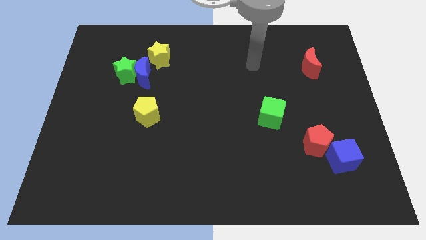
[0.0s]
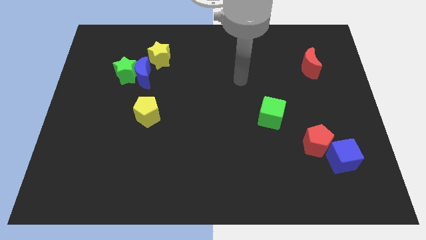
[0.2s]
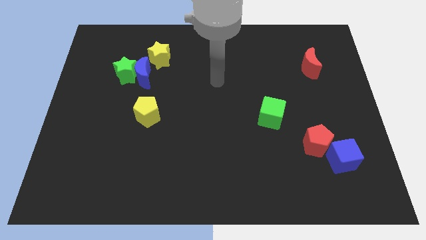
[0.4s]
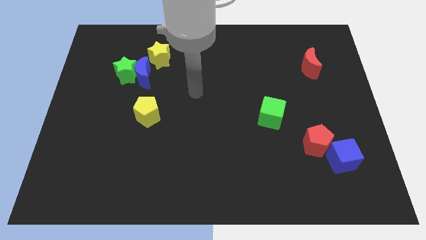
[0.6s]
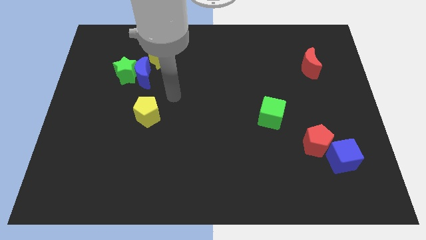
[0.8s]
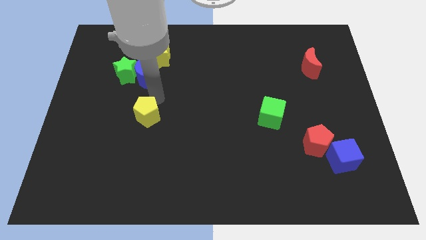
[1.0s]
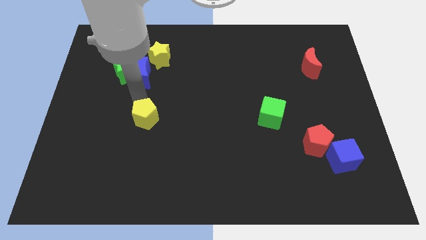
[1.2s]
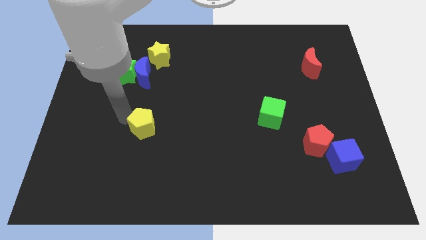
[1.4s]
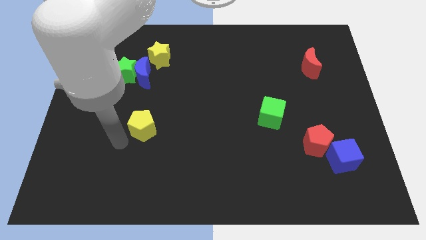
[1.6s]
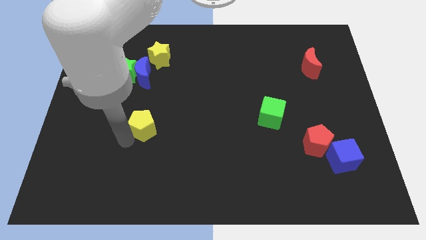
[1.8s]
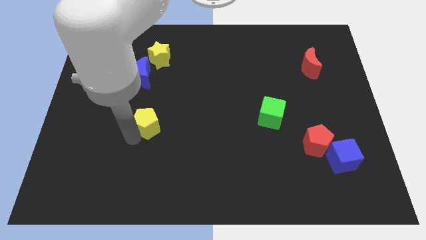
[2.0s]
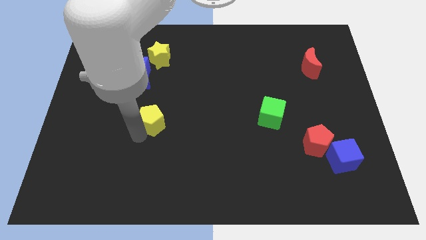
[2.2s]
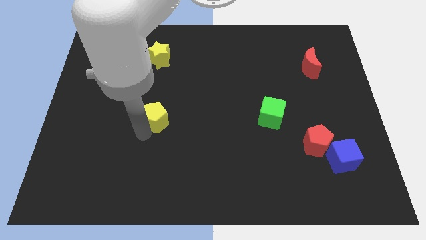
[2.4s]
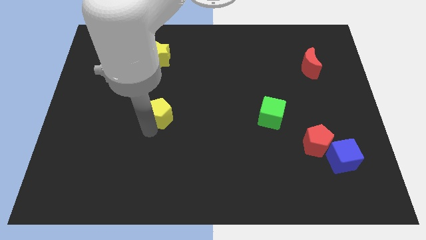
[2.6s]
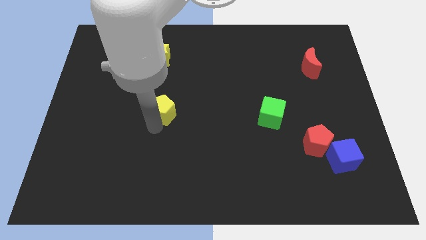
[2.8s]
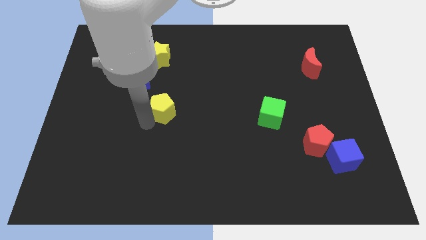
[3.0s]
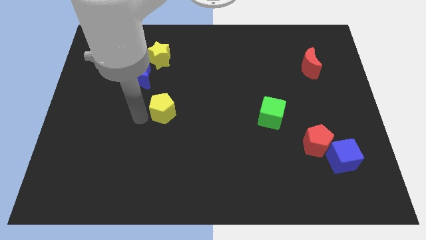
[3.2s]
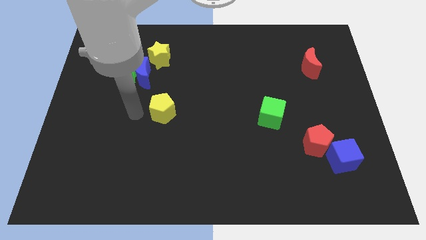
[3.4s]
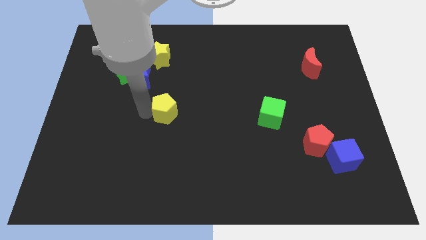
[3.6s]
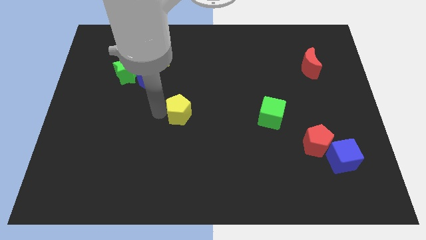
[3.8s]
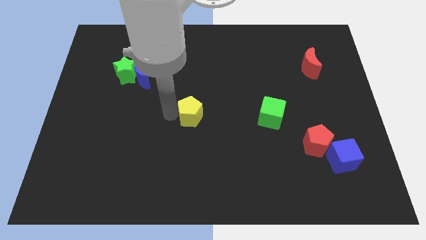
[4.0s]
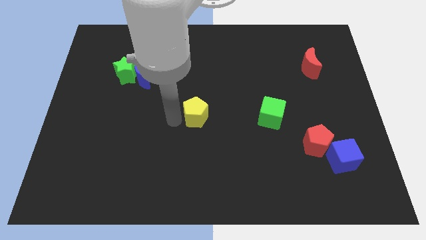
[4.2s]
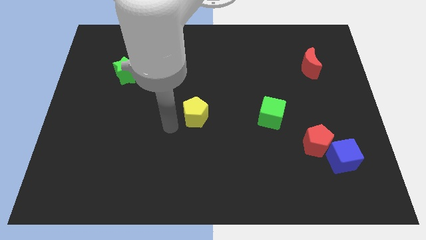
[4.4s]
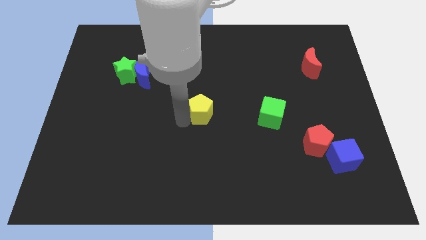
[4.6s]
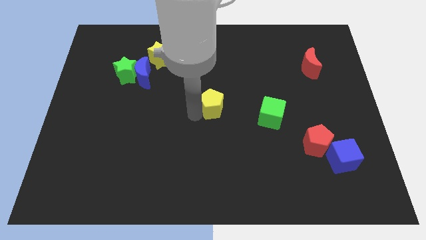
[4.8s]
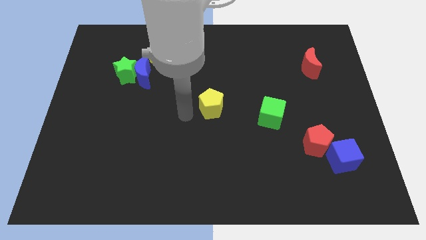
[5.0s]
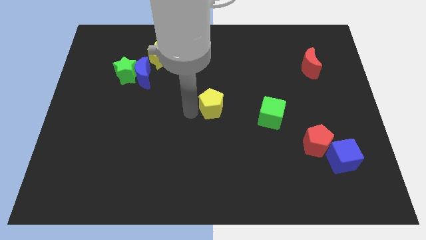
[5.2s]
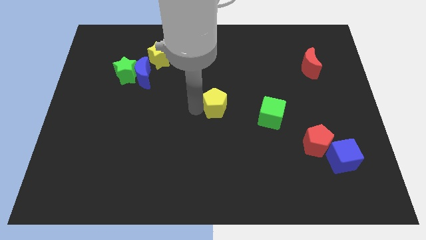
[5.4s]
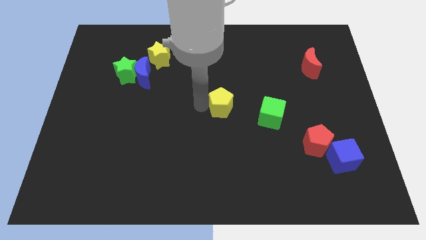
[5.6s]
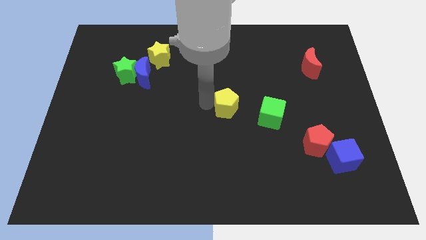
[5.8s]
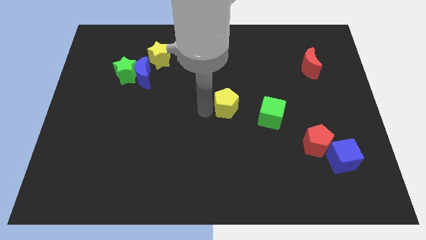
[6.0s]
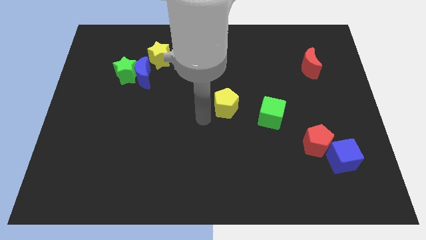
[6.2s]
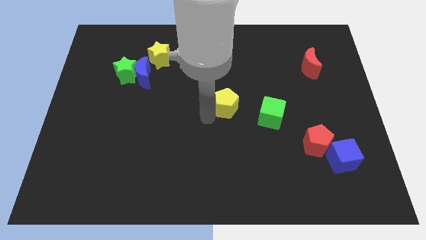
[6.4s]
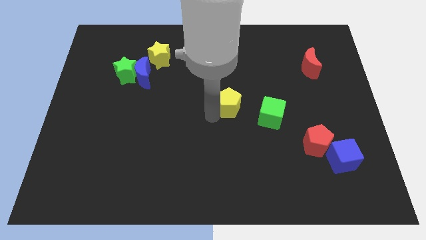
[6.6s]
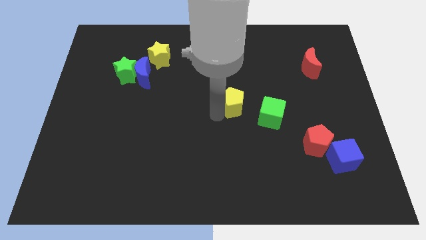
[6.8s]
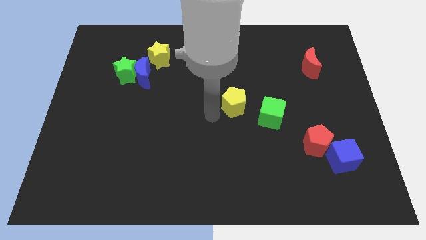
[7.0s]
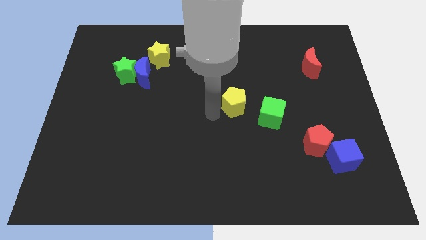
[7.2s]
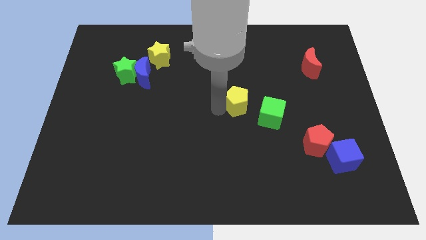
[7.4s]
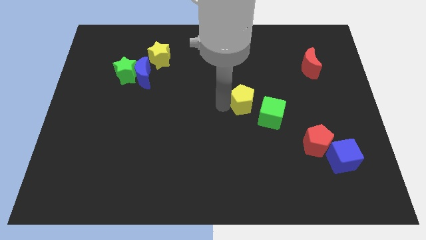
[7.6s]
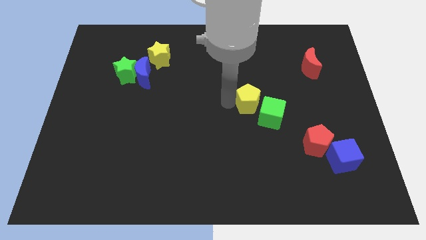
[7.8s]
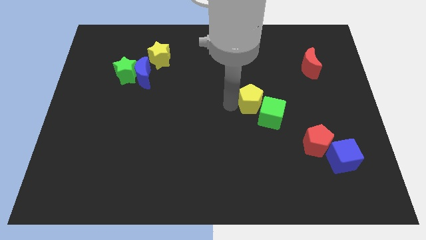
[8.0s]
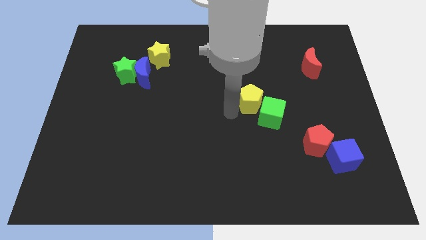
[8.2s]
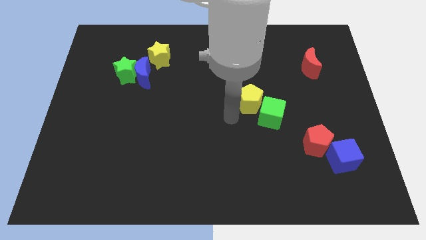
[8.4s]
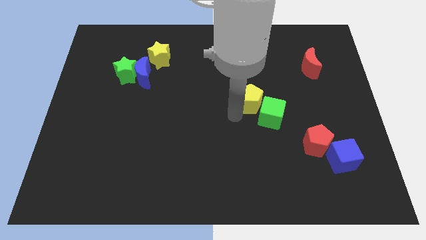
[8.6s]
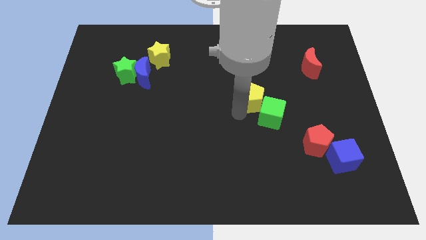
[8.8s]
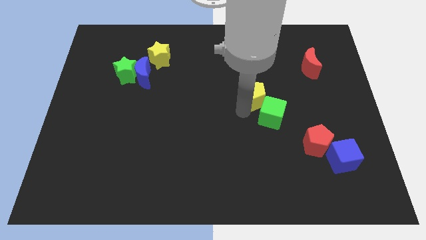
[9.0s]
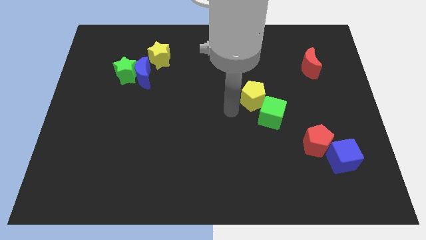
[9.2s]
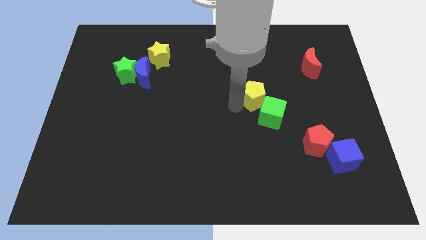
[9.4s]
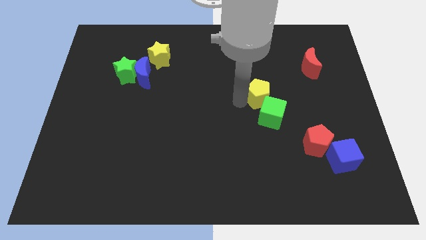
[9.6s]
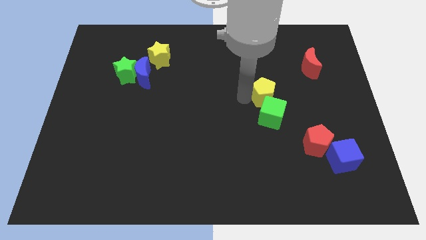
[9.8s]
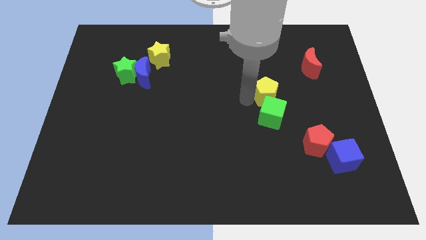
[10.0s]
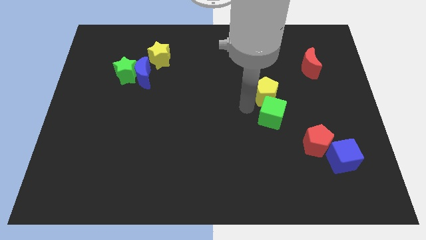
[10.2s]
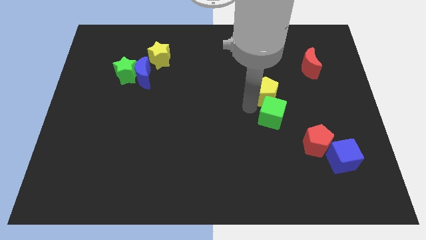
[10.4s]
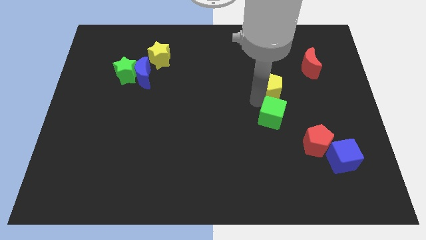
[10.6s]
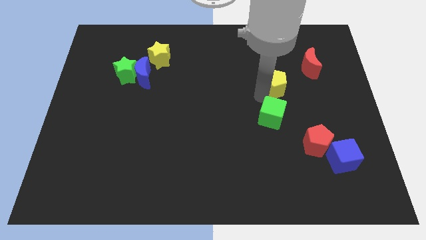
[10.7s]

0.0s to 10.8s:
slide the yellow pentagon to the bottom left of the red moon
